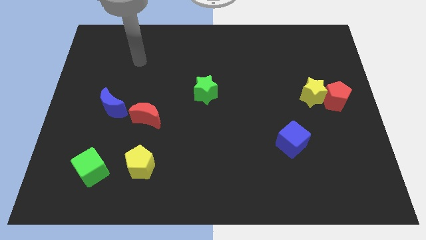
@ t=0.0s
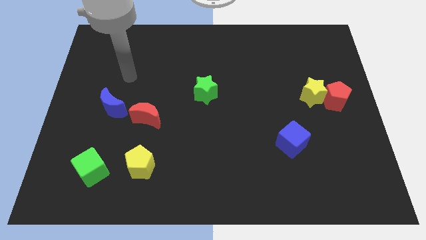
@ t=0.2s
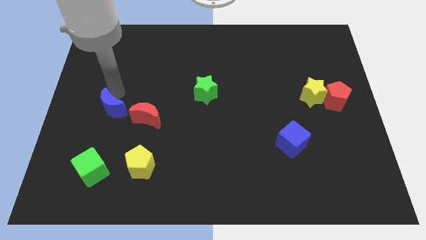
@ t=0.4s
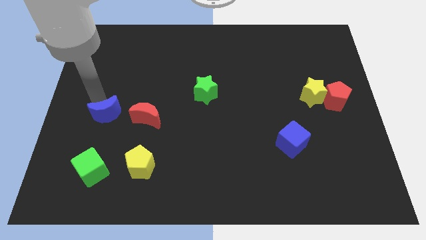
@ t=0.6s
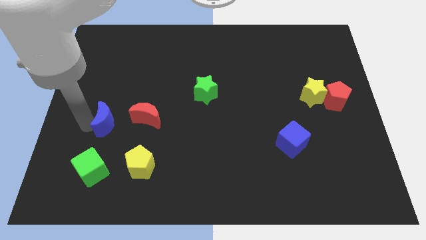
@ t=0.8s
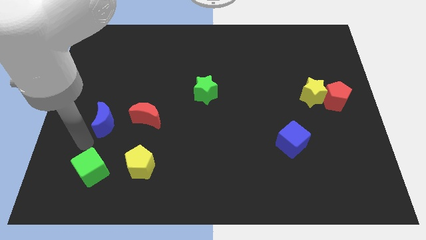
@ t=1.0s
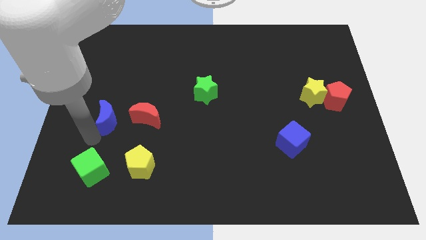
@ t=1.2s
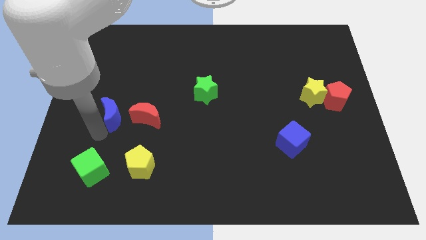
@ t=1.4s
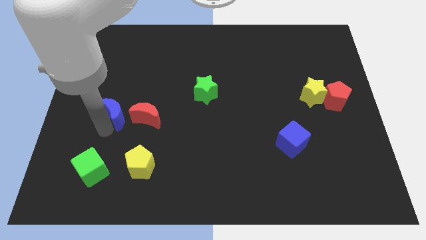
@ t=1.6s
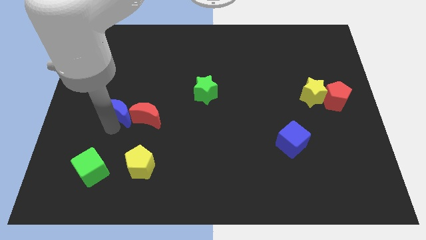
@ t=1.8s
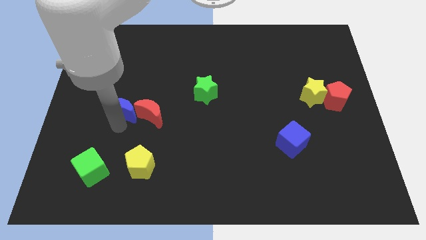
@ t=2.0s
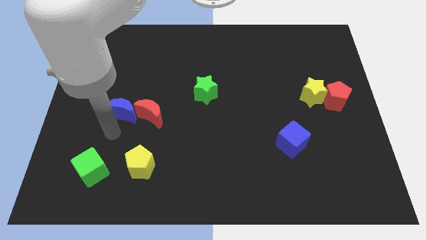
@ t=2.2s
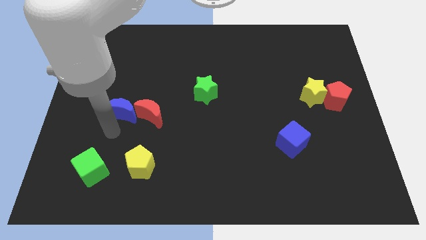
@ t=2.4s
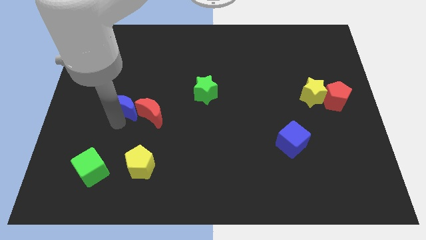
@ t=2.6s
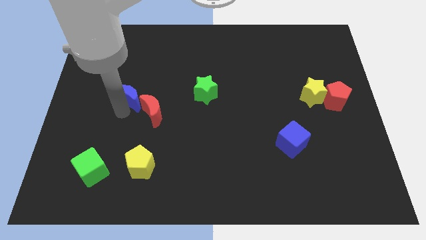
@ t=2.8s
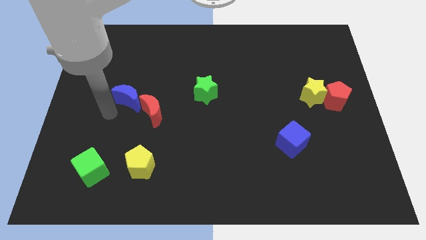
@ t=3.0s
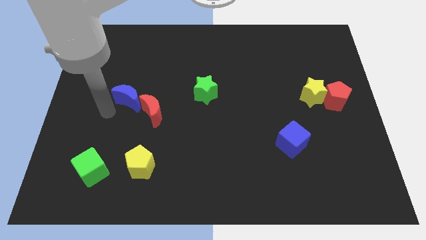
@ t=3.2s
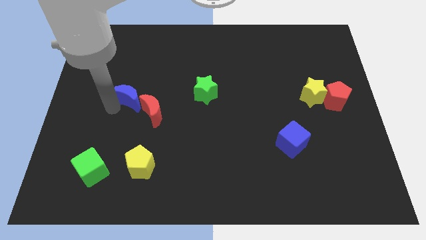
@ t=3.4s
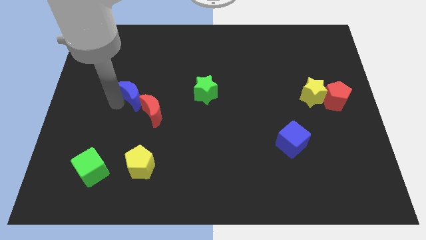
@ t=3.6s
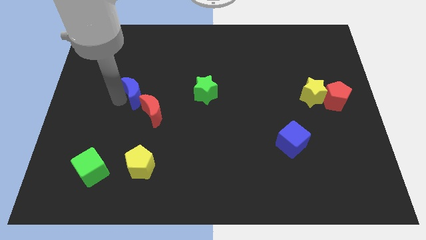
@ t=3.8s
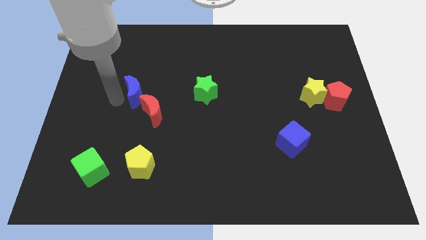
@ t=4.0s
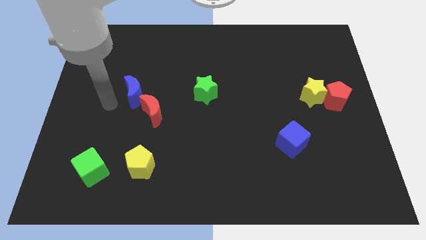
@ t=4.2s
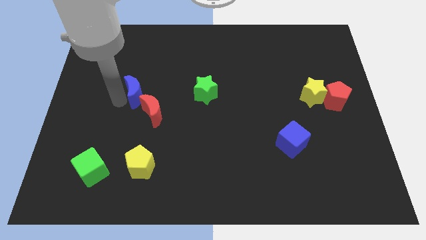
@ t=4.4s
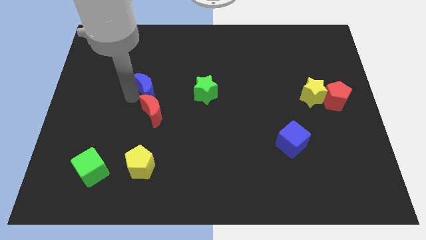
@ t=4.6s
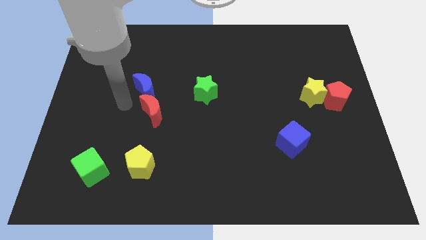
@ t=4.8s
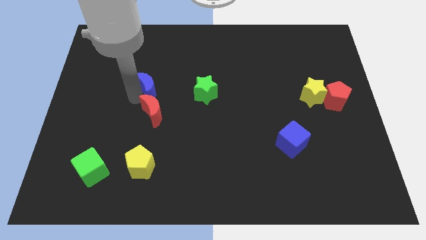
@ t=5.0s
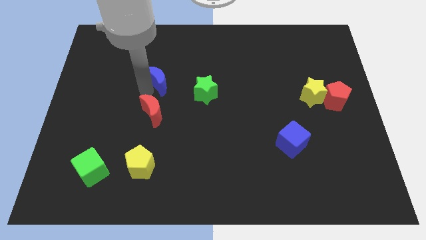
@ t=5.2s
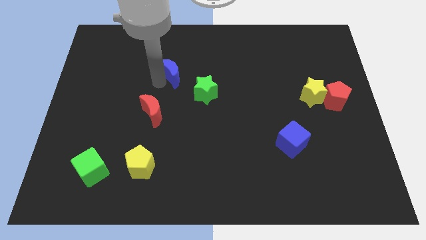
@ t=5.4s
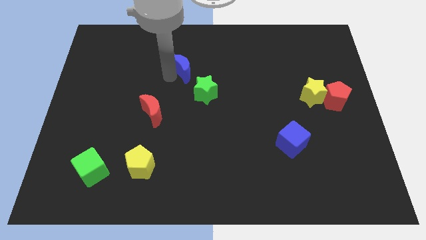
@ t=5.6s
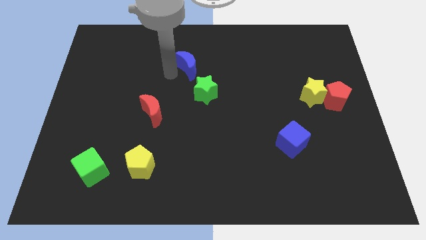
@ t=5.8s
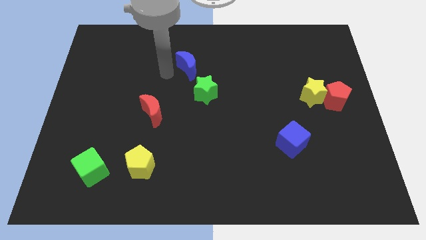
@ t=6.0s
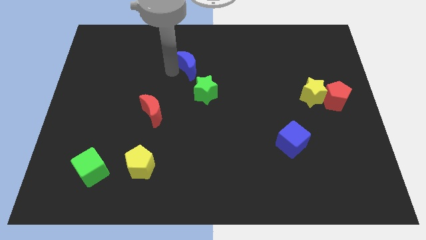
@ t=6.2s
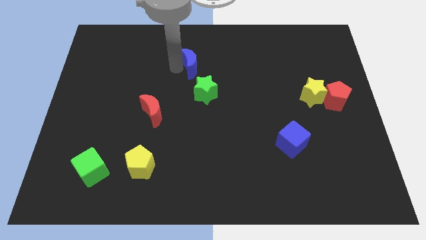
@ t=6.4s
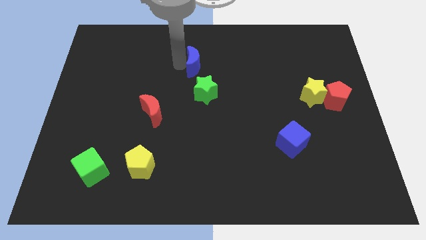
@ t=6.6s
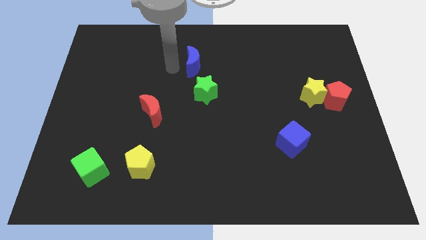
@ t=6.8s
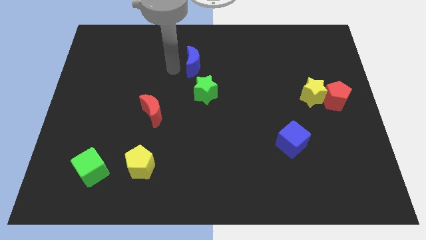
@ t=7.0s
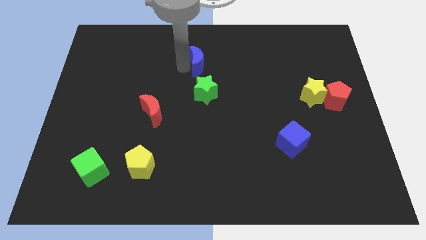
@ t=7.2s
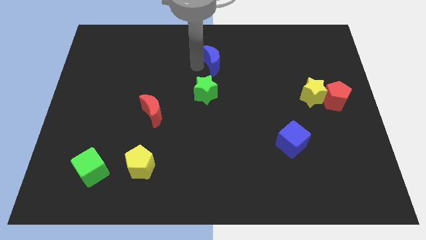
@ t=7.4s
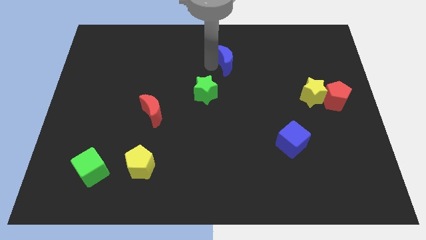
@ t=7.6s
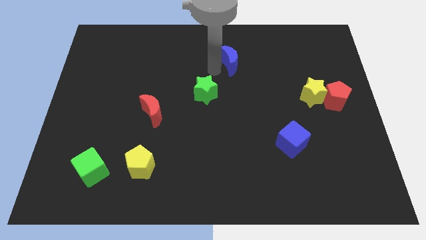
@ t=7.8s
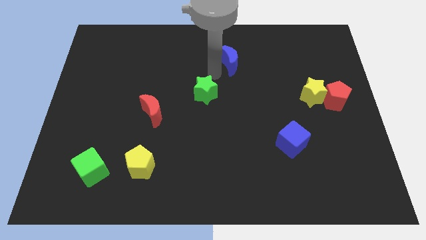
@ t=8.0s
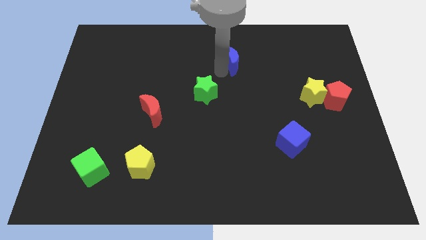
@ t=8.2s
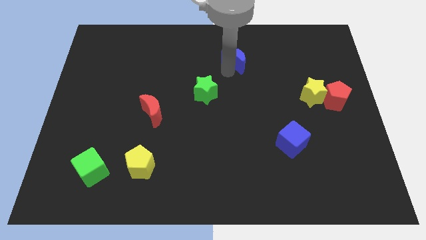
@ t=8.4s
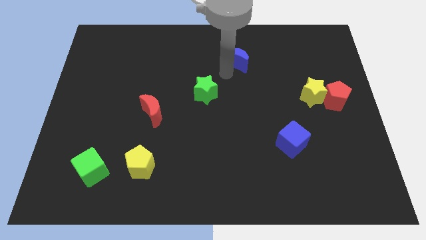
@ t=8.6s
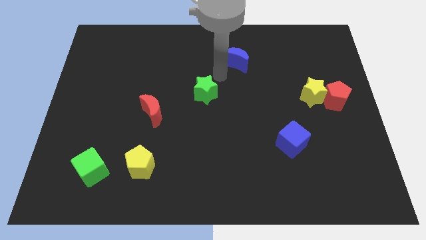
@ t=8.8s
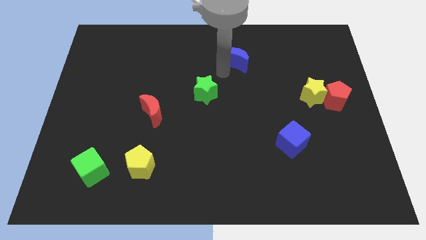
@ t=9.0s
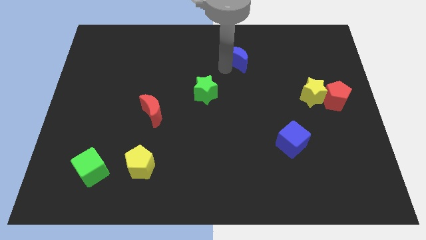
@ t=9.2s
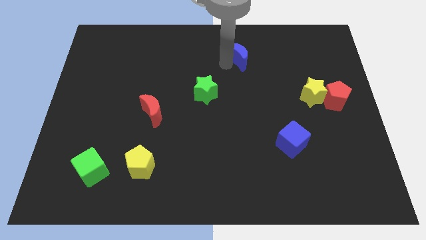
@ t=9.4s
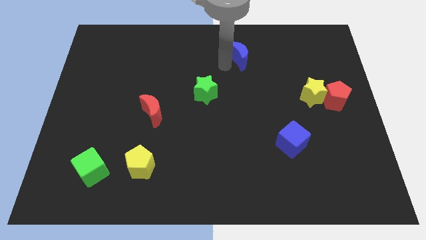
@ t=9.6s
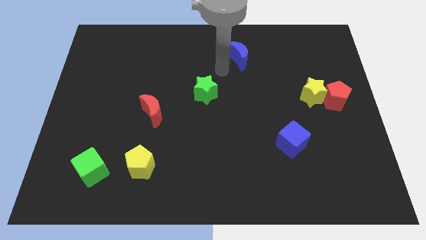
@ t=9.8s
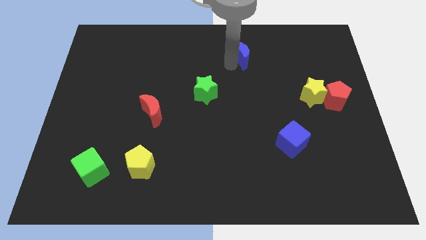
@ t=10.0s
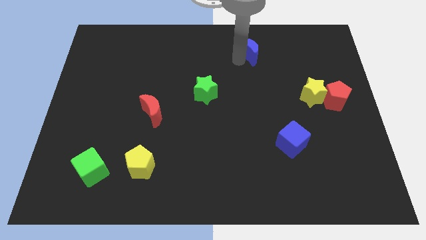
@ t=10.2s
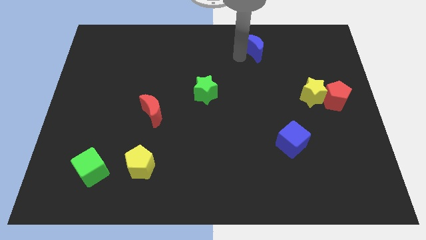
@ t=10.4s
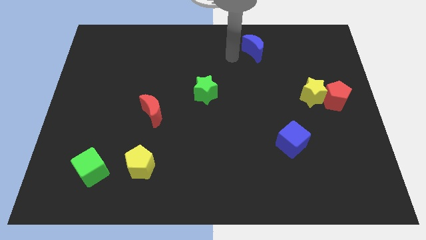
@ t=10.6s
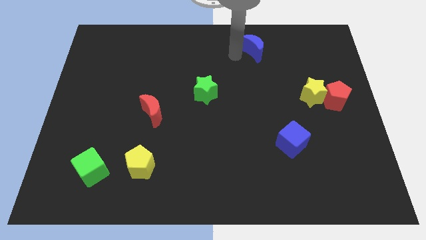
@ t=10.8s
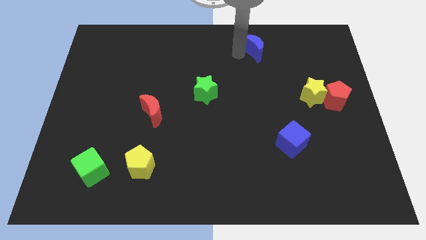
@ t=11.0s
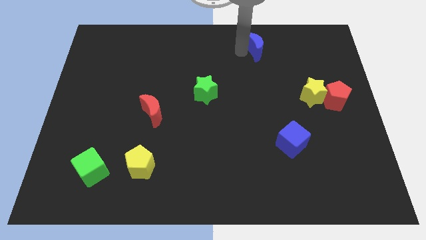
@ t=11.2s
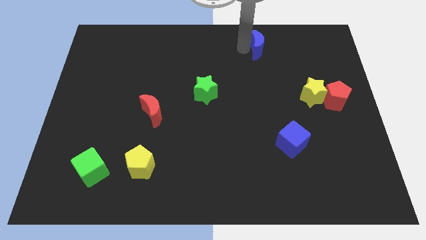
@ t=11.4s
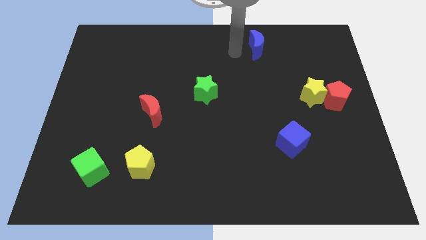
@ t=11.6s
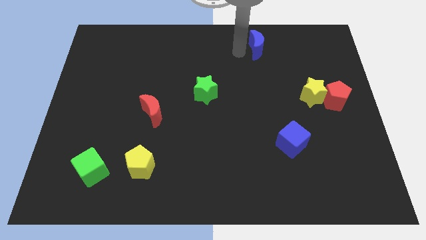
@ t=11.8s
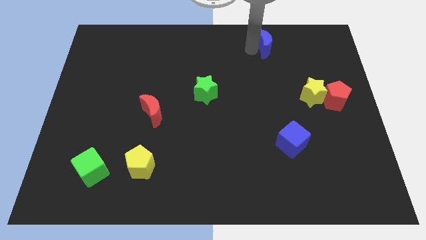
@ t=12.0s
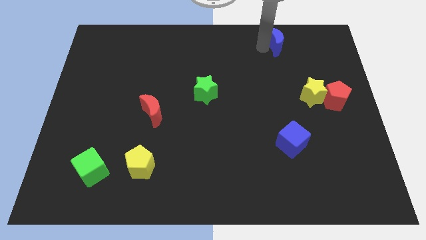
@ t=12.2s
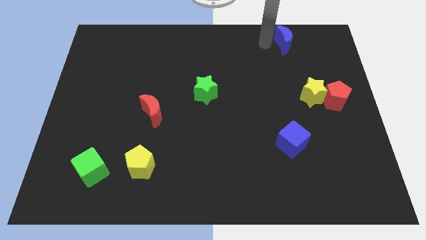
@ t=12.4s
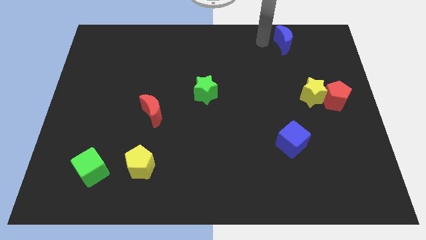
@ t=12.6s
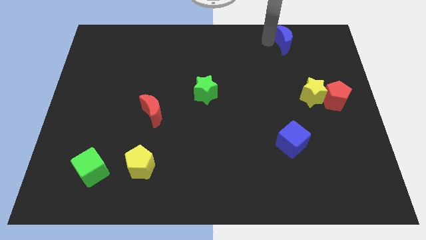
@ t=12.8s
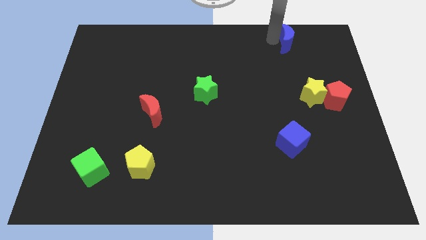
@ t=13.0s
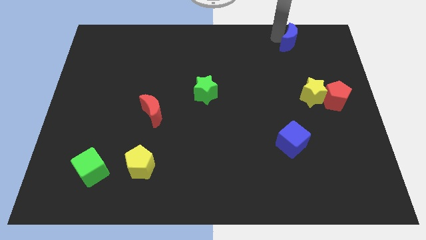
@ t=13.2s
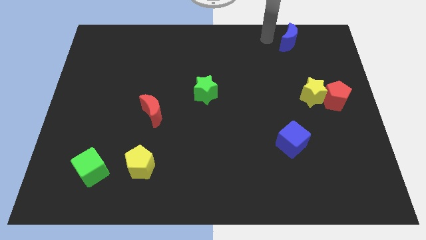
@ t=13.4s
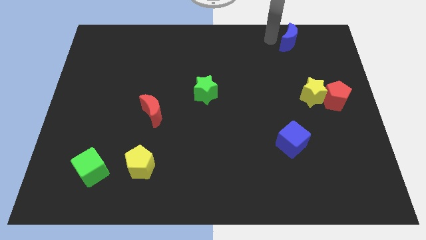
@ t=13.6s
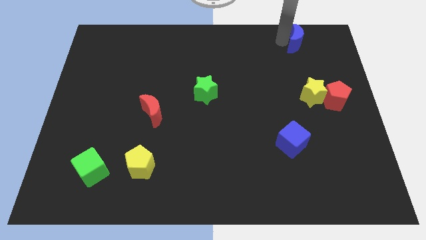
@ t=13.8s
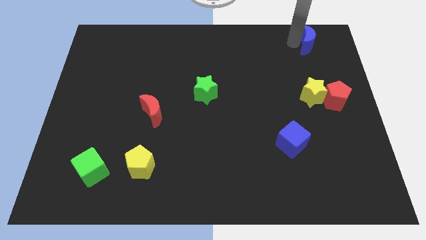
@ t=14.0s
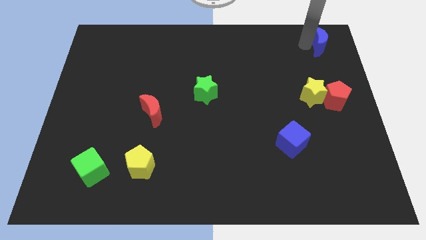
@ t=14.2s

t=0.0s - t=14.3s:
push the blue moon to the top right
